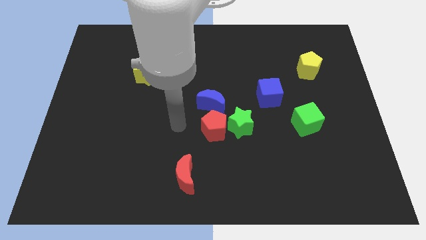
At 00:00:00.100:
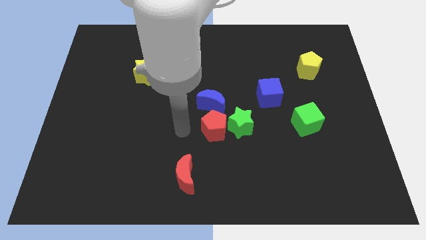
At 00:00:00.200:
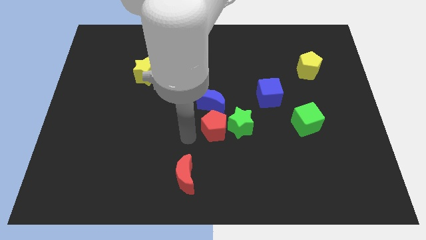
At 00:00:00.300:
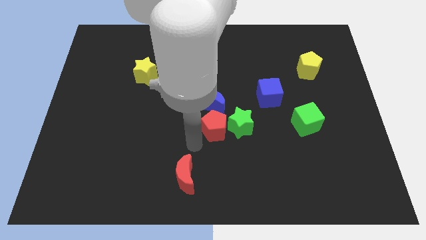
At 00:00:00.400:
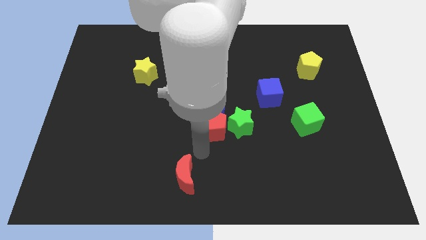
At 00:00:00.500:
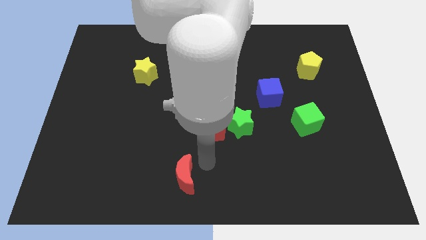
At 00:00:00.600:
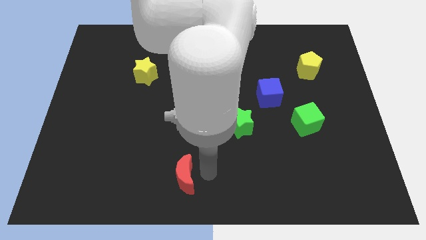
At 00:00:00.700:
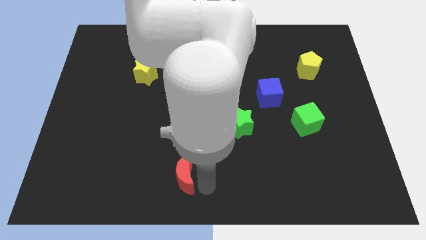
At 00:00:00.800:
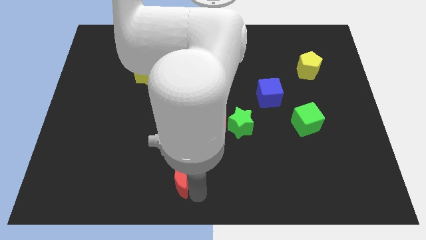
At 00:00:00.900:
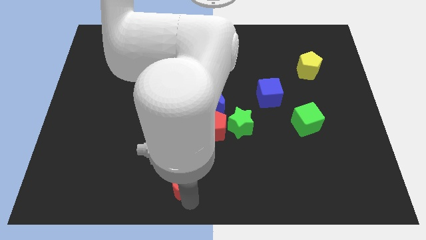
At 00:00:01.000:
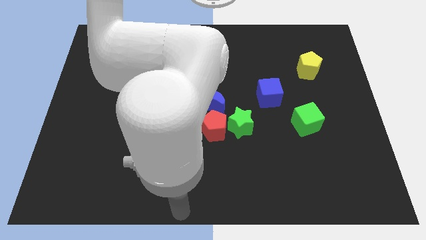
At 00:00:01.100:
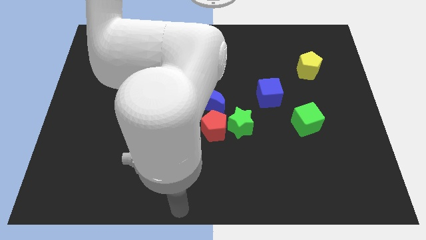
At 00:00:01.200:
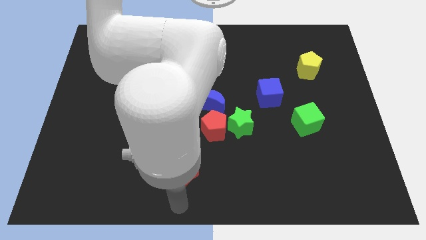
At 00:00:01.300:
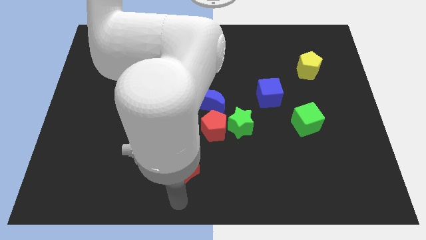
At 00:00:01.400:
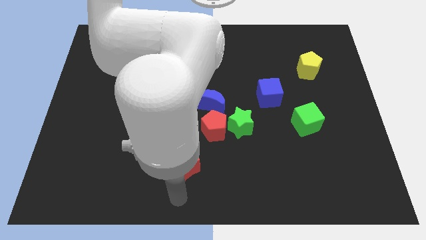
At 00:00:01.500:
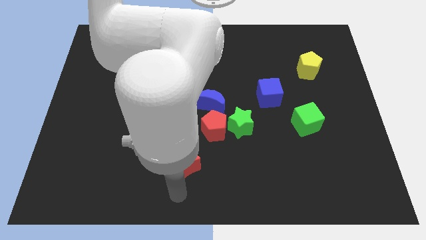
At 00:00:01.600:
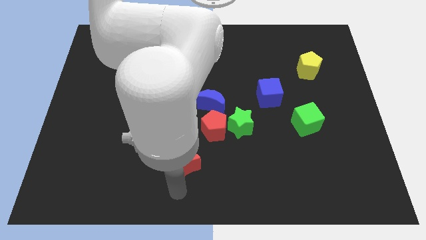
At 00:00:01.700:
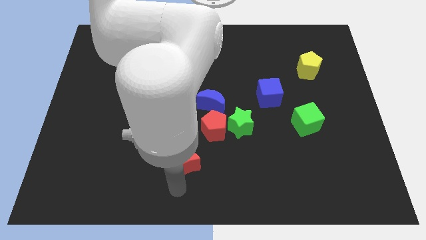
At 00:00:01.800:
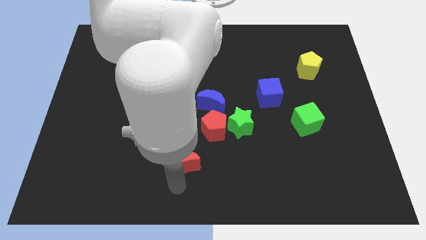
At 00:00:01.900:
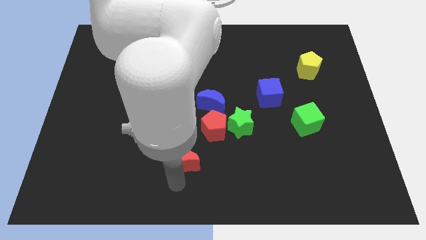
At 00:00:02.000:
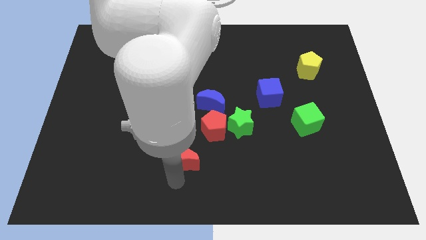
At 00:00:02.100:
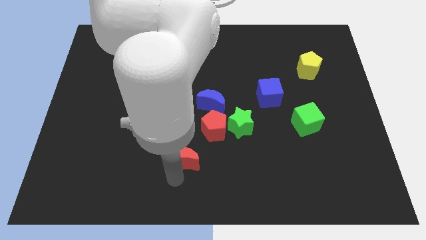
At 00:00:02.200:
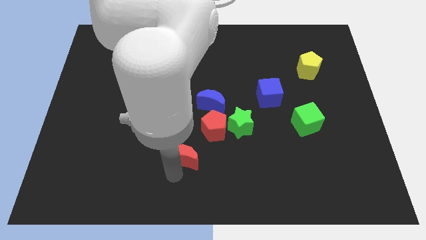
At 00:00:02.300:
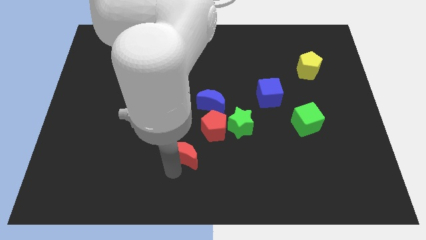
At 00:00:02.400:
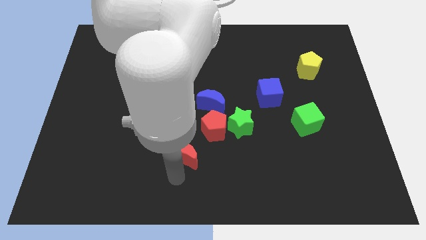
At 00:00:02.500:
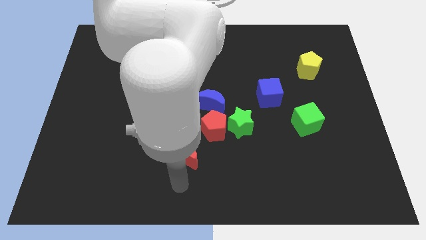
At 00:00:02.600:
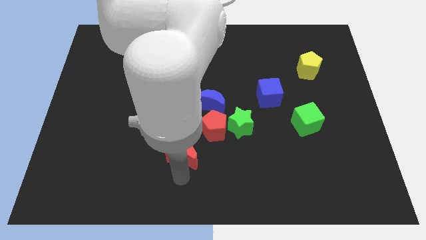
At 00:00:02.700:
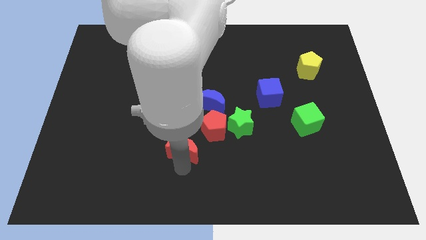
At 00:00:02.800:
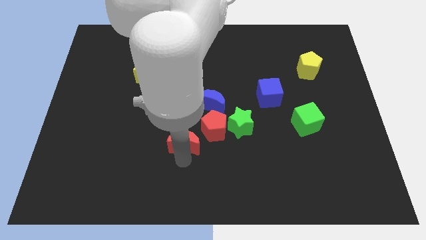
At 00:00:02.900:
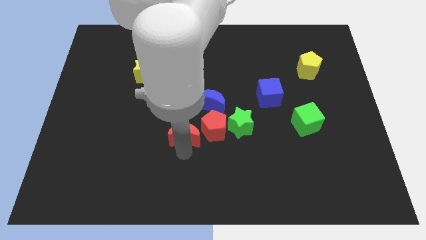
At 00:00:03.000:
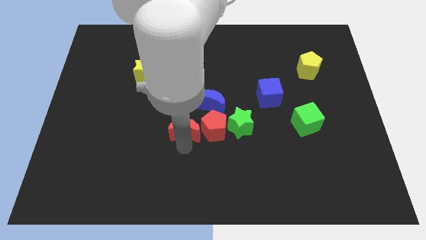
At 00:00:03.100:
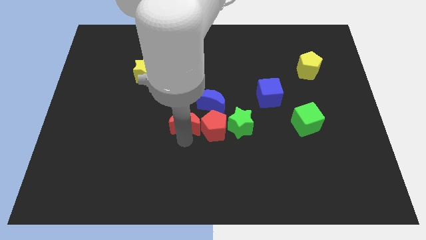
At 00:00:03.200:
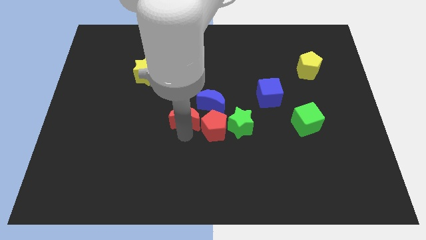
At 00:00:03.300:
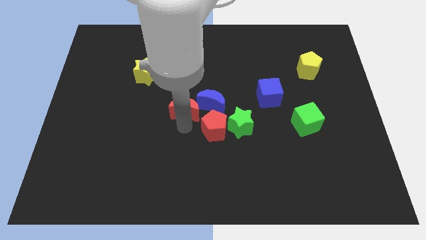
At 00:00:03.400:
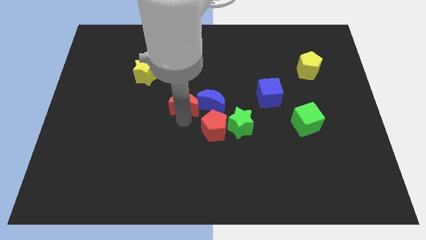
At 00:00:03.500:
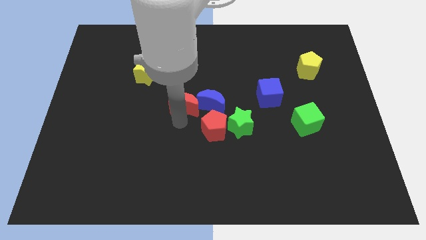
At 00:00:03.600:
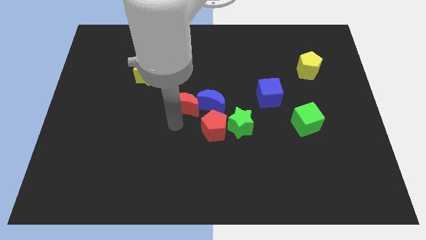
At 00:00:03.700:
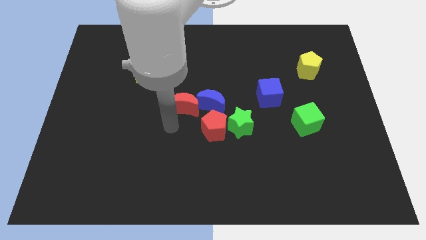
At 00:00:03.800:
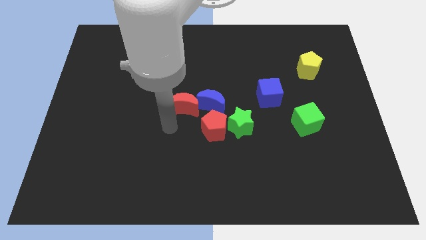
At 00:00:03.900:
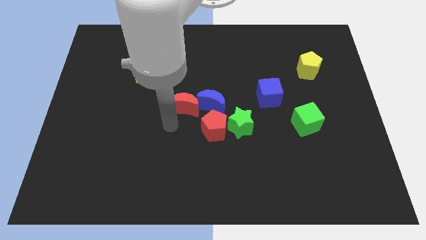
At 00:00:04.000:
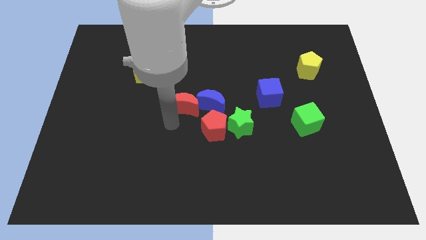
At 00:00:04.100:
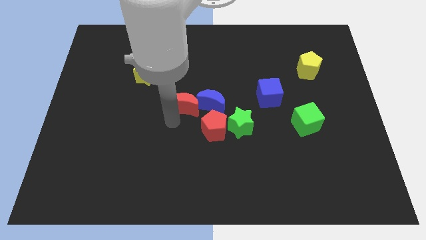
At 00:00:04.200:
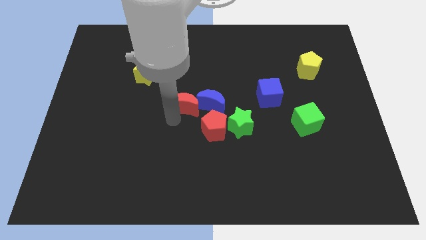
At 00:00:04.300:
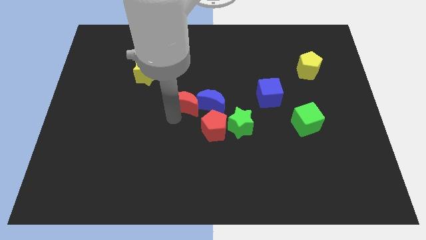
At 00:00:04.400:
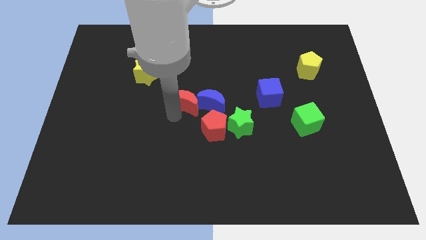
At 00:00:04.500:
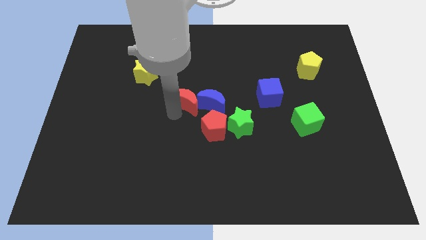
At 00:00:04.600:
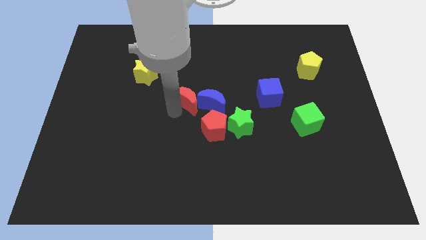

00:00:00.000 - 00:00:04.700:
push the red moon upwards

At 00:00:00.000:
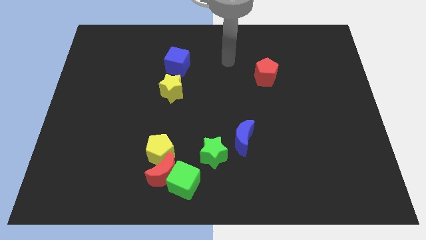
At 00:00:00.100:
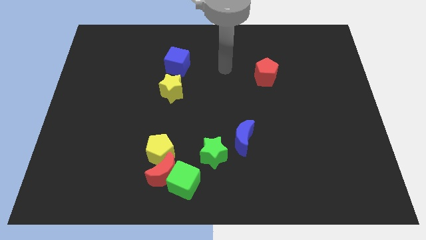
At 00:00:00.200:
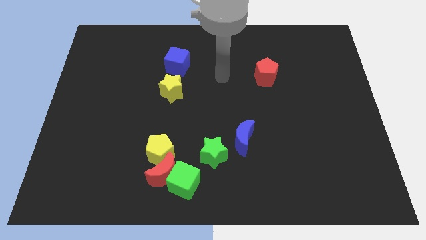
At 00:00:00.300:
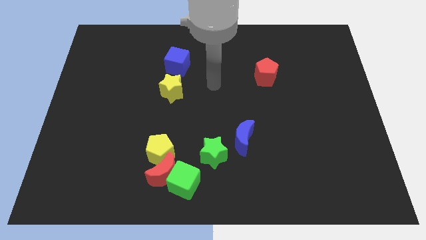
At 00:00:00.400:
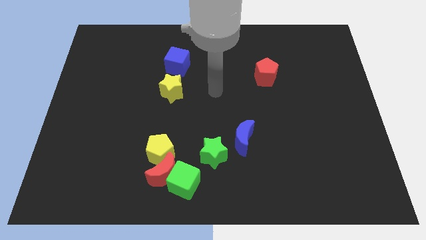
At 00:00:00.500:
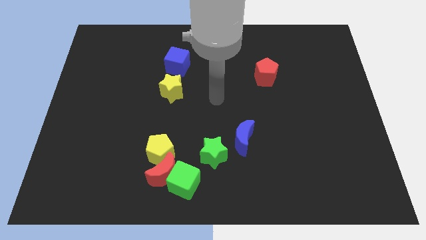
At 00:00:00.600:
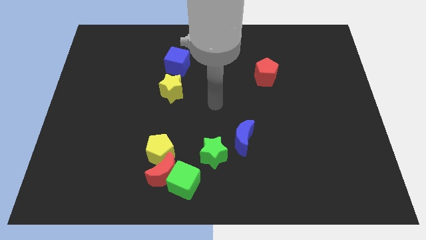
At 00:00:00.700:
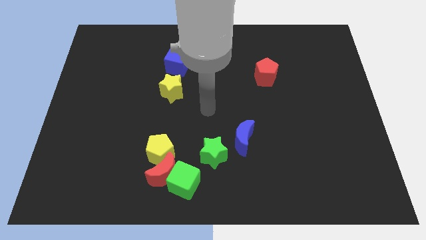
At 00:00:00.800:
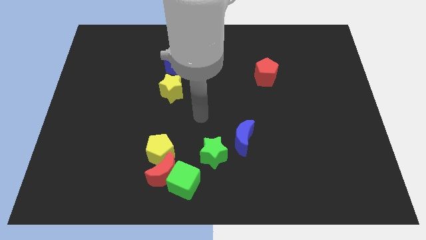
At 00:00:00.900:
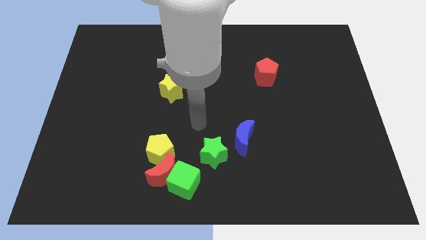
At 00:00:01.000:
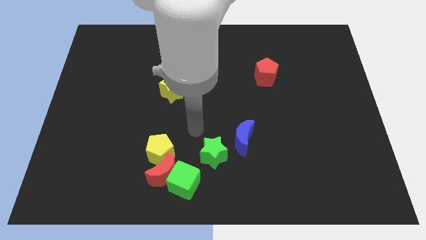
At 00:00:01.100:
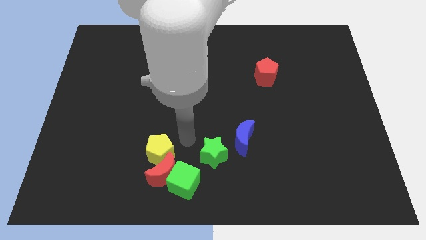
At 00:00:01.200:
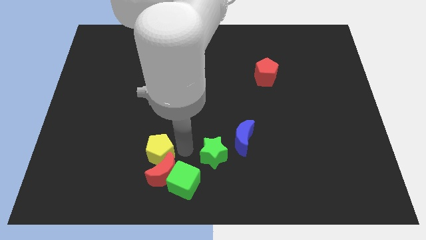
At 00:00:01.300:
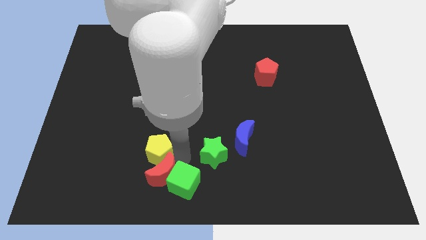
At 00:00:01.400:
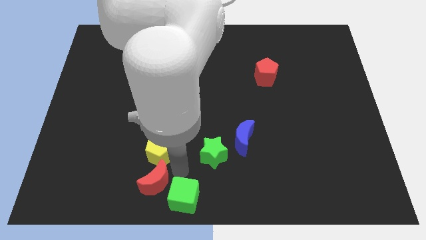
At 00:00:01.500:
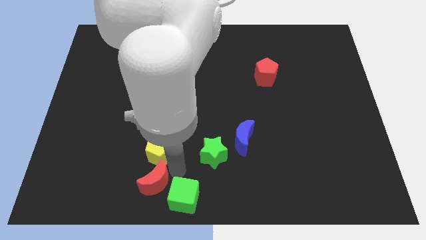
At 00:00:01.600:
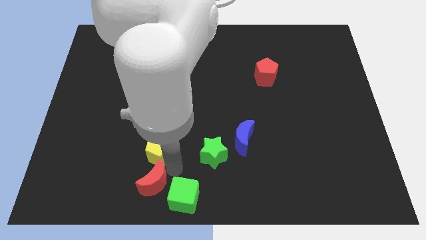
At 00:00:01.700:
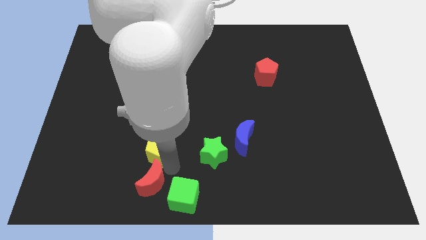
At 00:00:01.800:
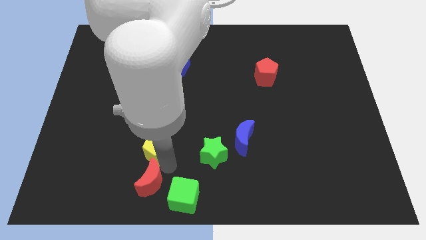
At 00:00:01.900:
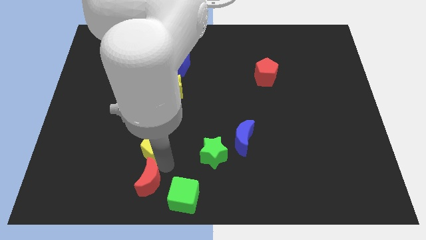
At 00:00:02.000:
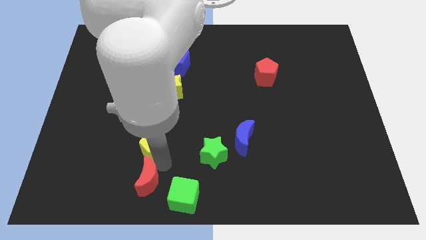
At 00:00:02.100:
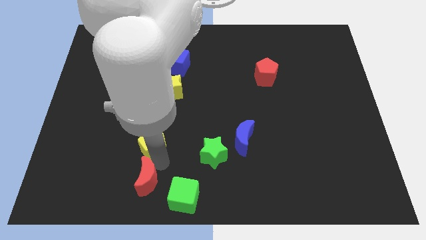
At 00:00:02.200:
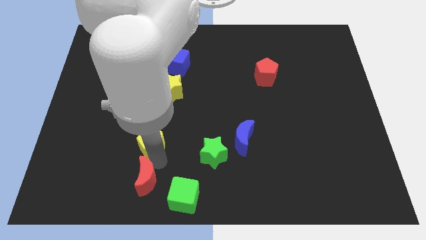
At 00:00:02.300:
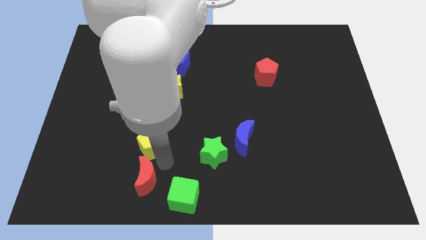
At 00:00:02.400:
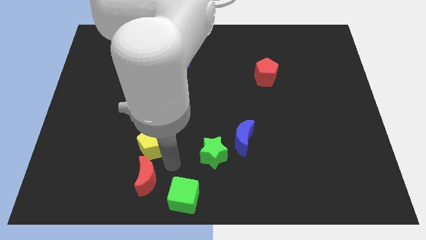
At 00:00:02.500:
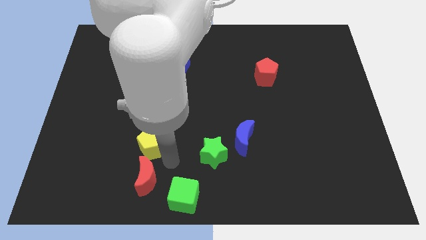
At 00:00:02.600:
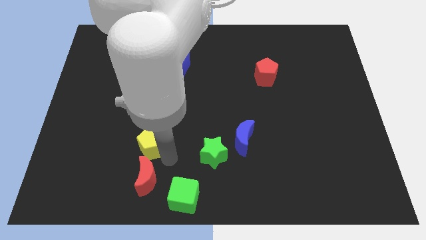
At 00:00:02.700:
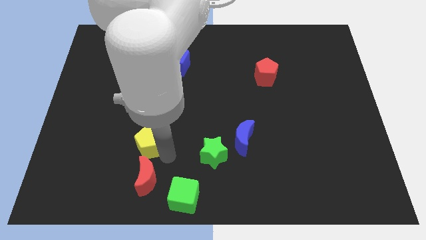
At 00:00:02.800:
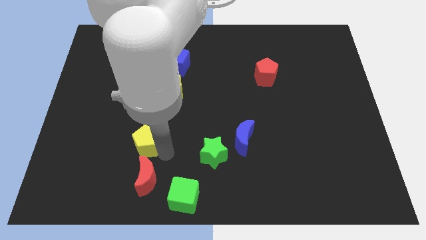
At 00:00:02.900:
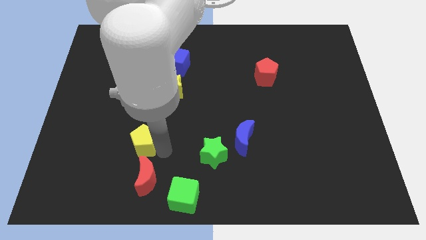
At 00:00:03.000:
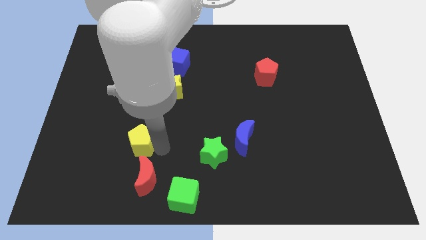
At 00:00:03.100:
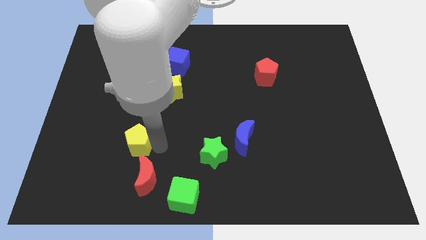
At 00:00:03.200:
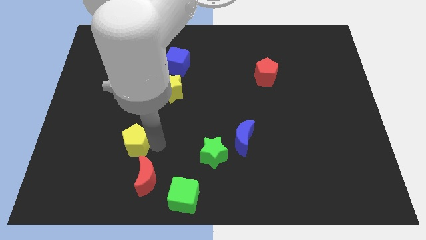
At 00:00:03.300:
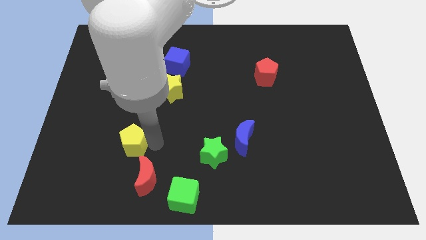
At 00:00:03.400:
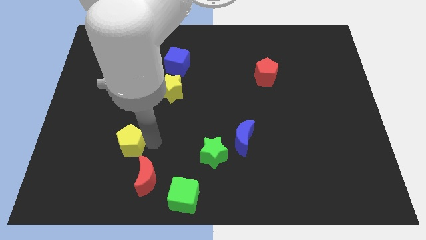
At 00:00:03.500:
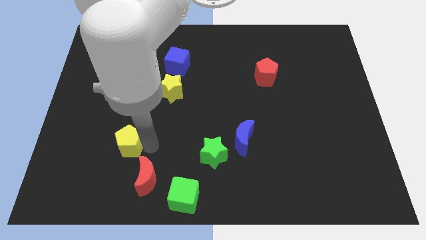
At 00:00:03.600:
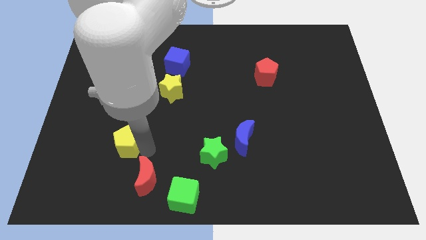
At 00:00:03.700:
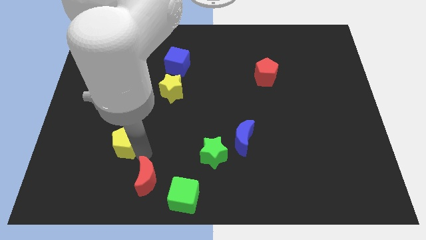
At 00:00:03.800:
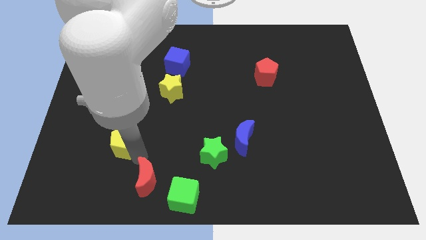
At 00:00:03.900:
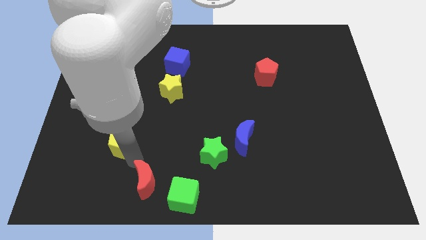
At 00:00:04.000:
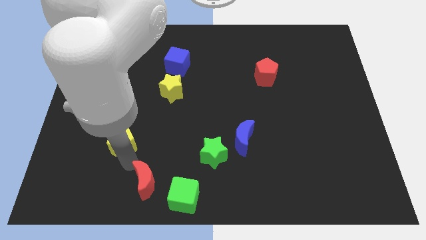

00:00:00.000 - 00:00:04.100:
slide the yellow pentagon upwards and left a little bit
